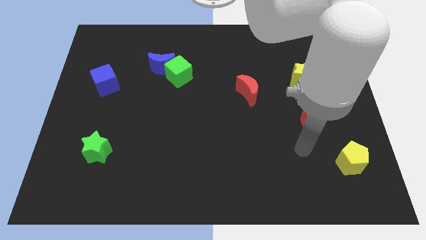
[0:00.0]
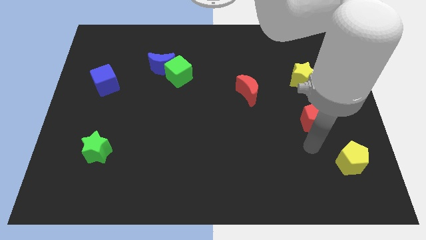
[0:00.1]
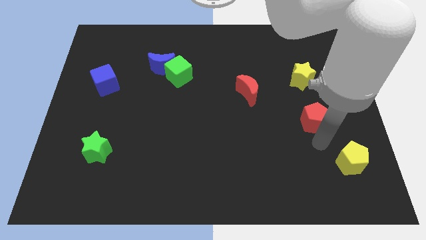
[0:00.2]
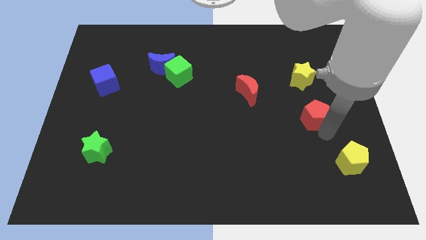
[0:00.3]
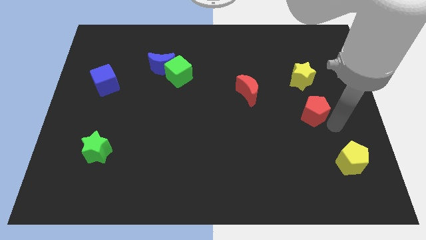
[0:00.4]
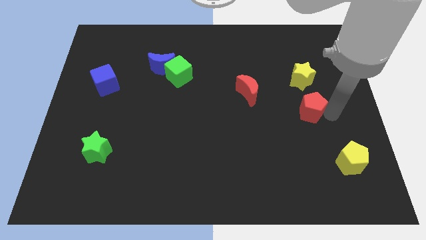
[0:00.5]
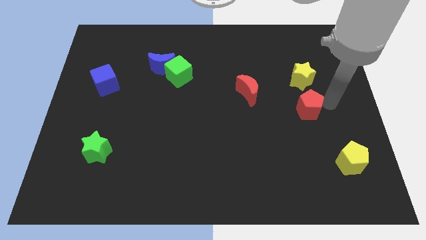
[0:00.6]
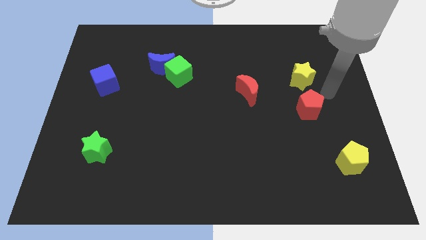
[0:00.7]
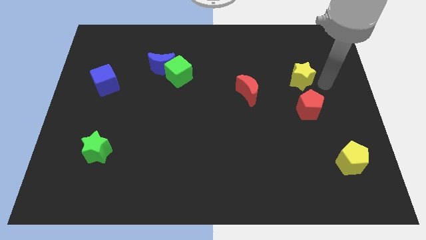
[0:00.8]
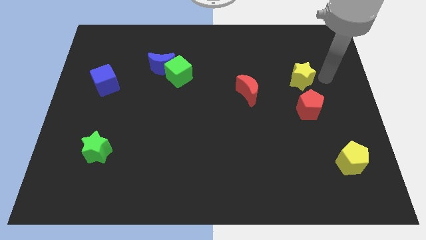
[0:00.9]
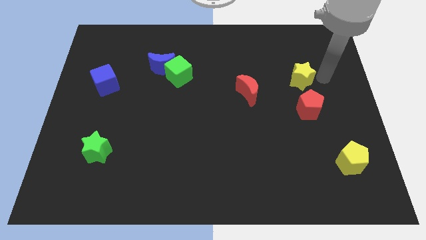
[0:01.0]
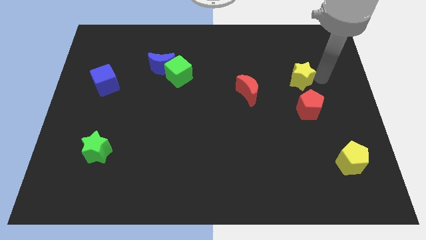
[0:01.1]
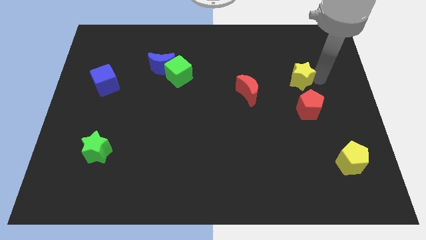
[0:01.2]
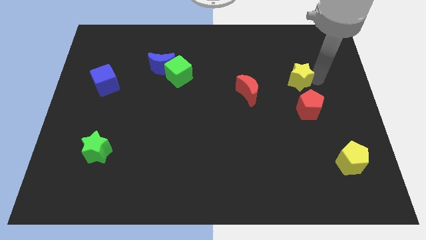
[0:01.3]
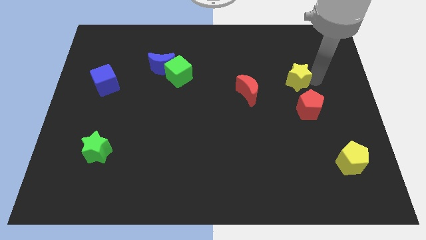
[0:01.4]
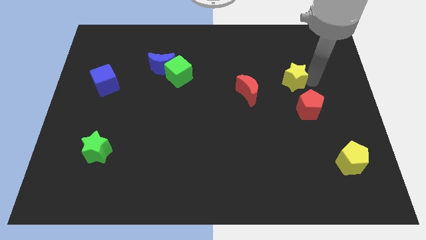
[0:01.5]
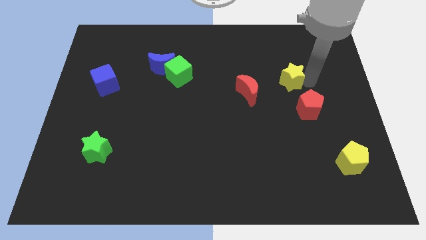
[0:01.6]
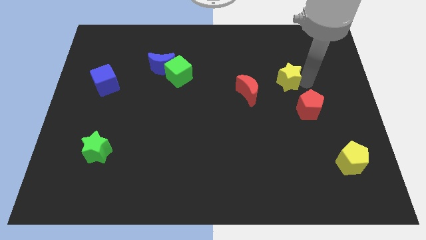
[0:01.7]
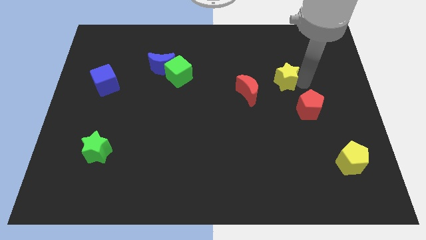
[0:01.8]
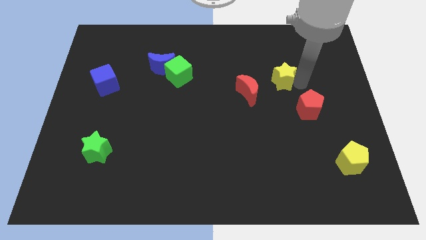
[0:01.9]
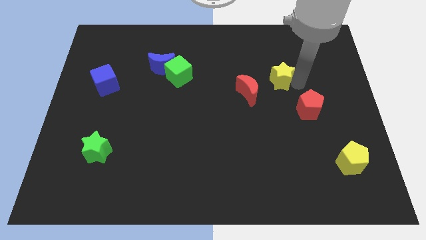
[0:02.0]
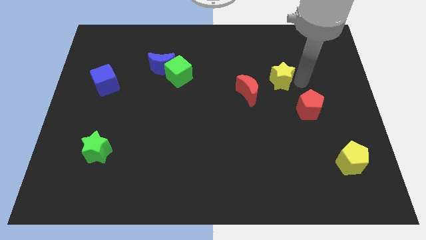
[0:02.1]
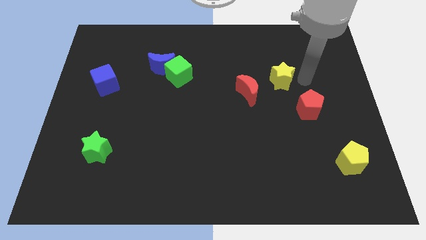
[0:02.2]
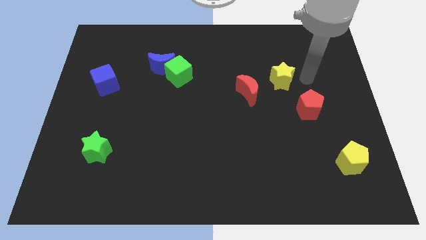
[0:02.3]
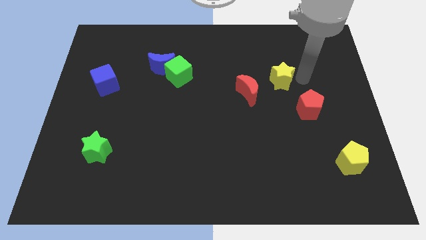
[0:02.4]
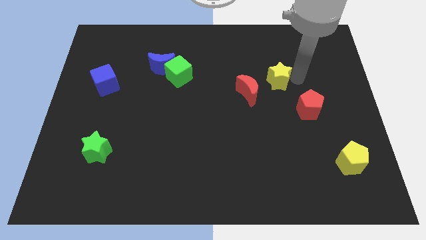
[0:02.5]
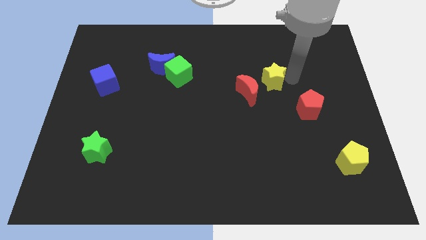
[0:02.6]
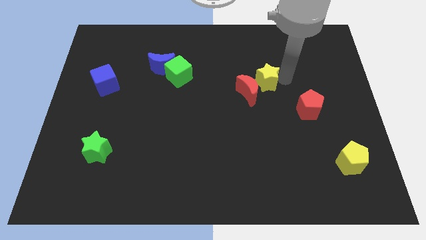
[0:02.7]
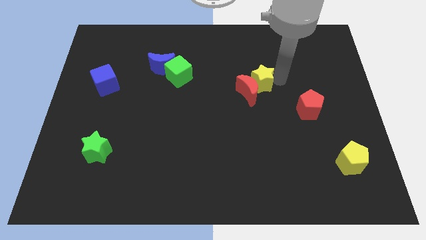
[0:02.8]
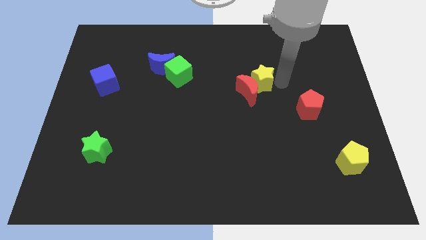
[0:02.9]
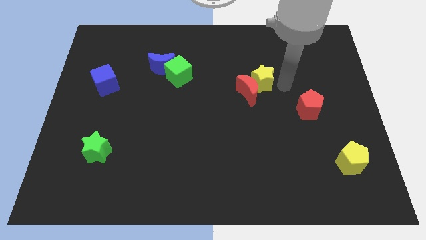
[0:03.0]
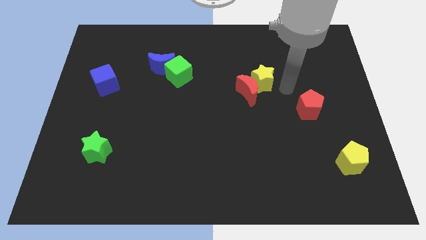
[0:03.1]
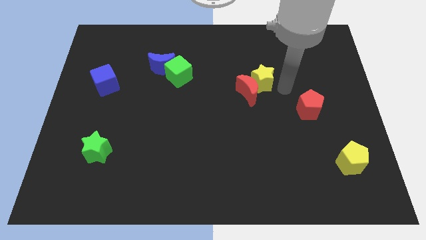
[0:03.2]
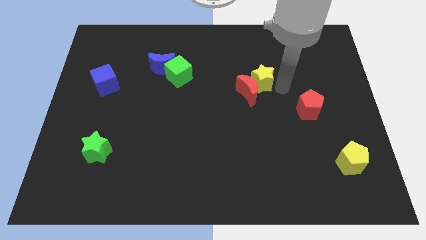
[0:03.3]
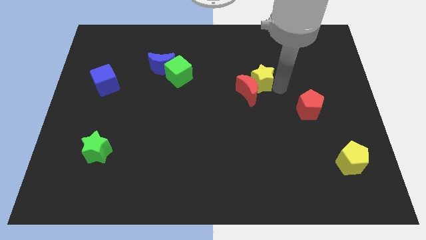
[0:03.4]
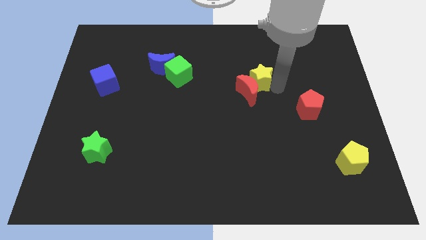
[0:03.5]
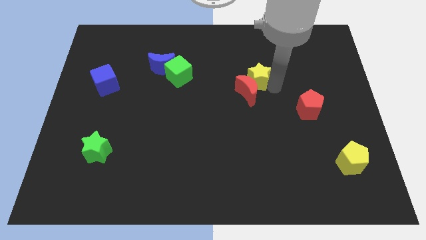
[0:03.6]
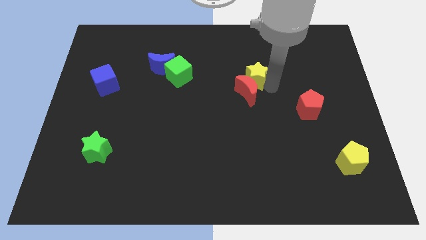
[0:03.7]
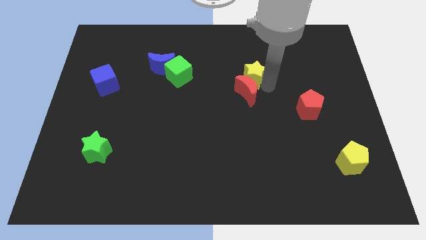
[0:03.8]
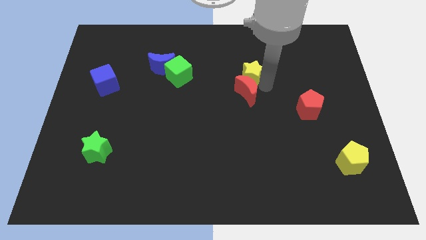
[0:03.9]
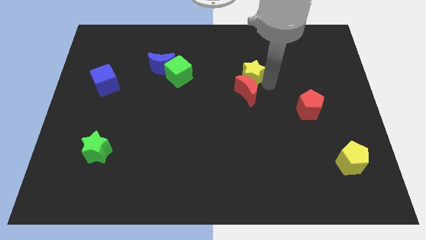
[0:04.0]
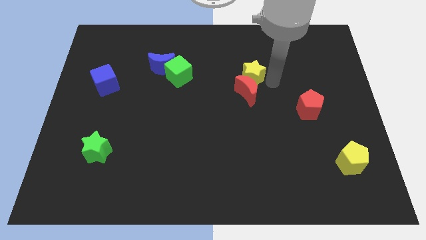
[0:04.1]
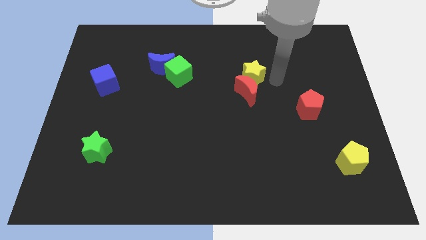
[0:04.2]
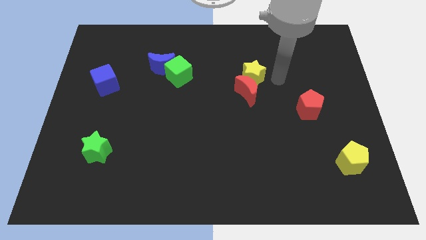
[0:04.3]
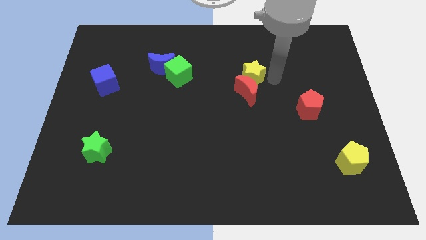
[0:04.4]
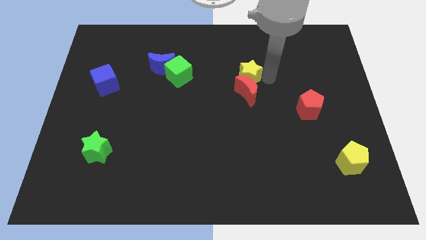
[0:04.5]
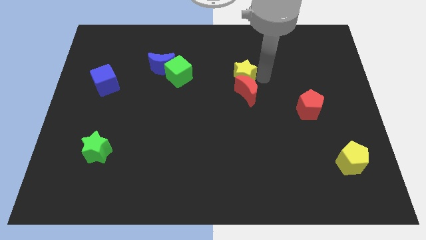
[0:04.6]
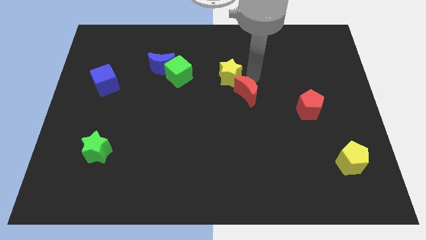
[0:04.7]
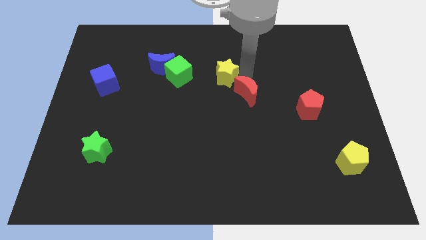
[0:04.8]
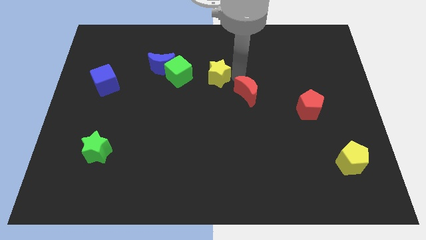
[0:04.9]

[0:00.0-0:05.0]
slide the yellow star to the right side of the blue moon

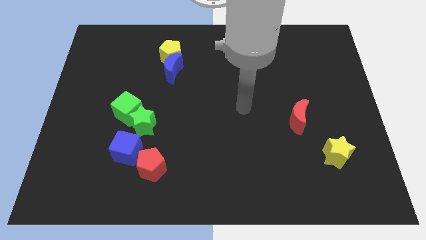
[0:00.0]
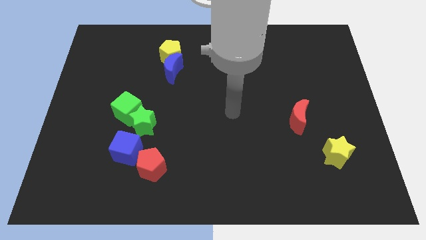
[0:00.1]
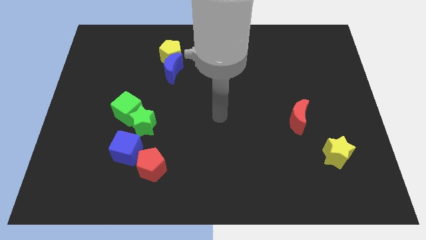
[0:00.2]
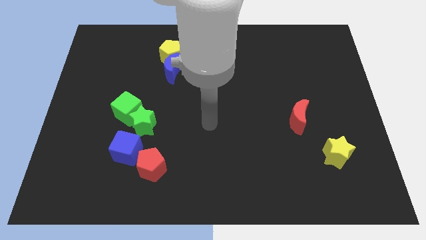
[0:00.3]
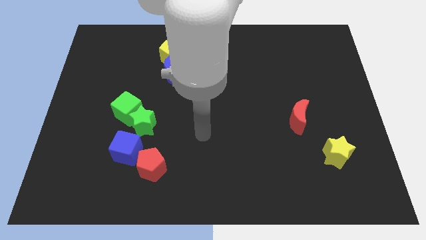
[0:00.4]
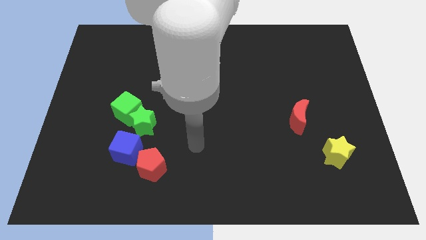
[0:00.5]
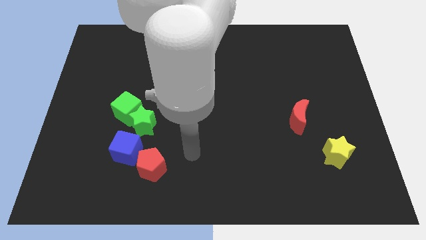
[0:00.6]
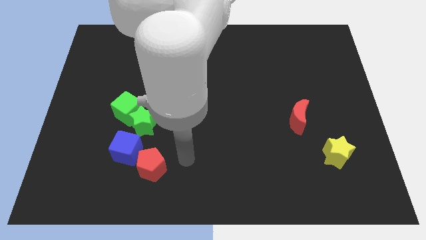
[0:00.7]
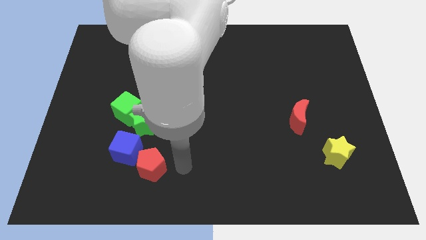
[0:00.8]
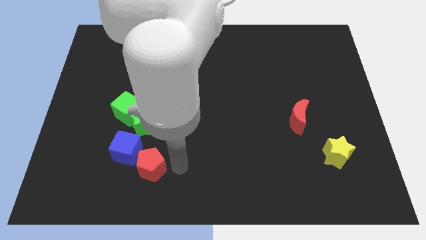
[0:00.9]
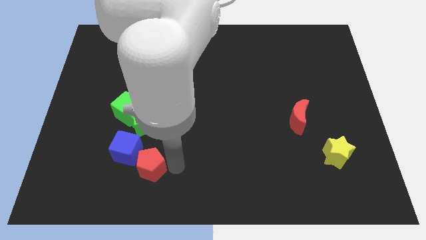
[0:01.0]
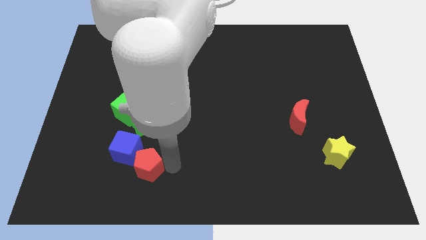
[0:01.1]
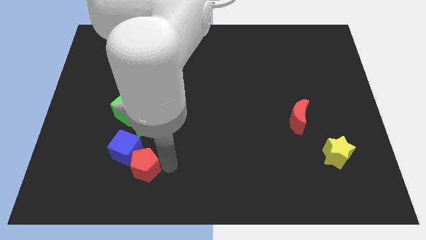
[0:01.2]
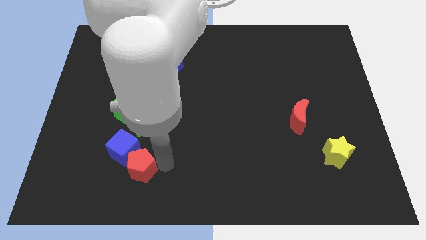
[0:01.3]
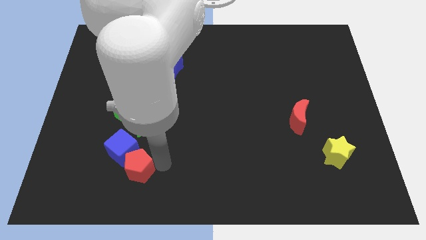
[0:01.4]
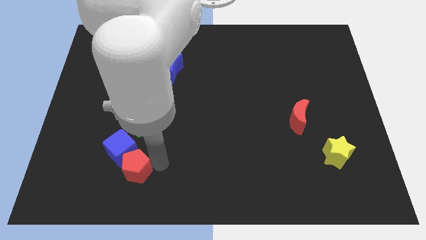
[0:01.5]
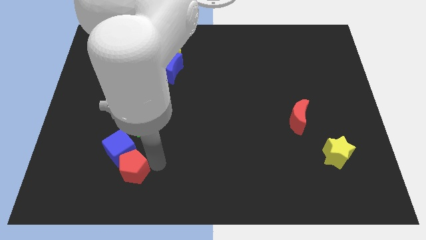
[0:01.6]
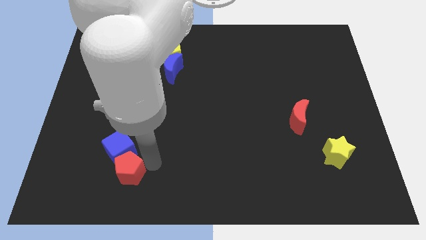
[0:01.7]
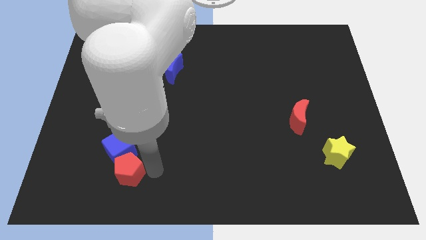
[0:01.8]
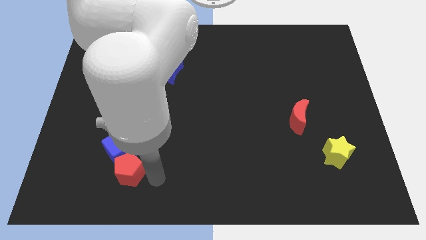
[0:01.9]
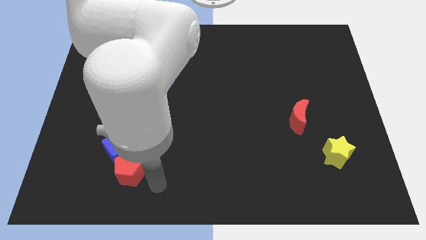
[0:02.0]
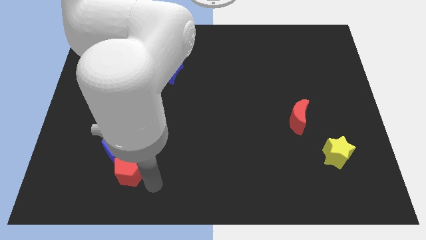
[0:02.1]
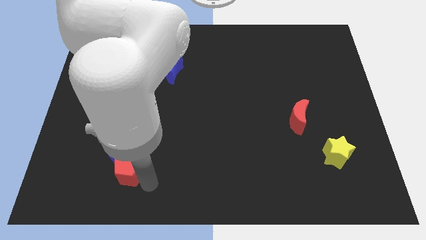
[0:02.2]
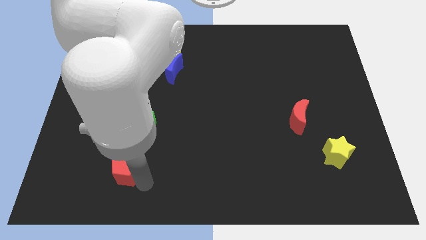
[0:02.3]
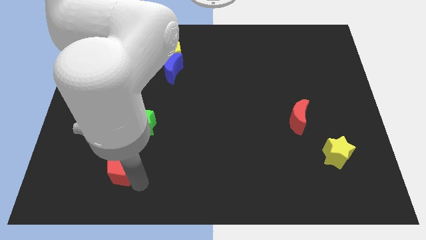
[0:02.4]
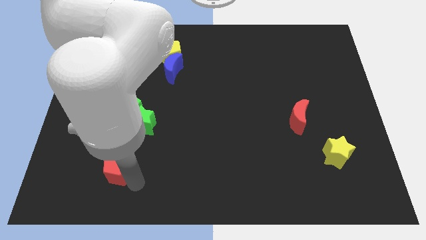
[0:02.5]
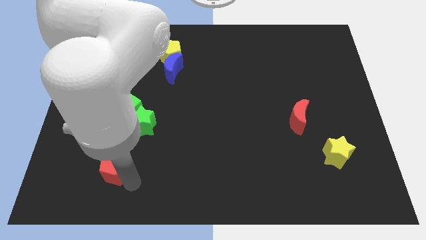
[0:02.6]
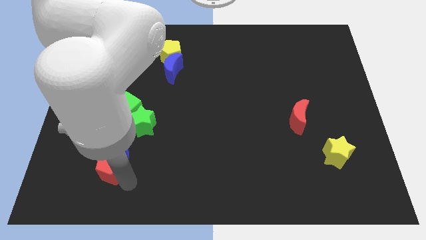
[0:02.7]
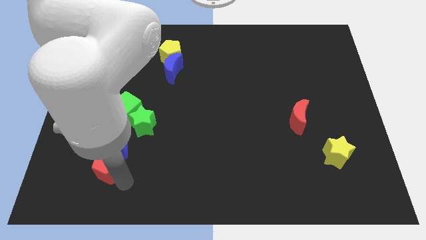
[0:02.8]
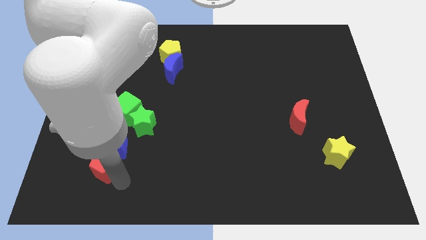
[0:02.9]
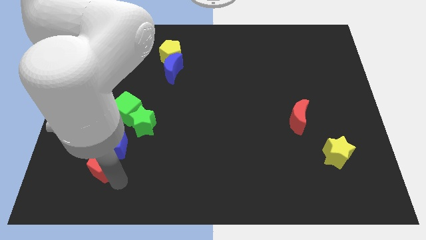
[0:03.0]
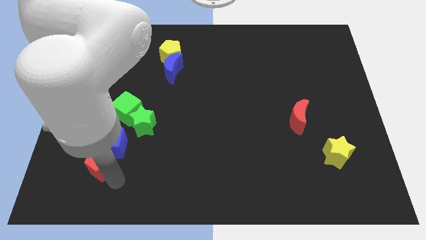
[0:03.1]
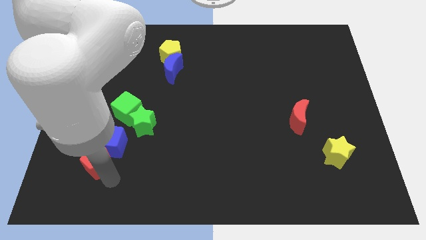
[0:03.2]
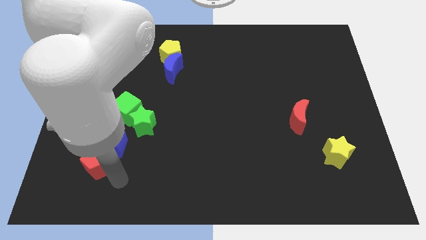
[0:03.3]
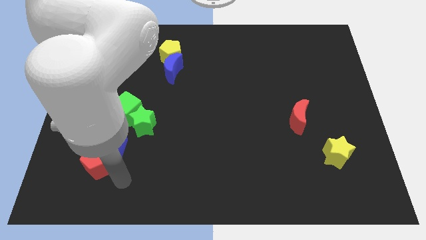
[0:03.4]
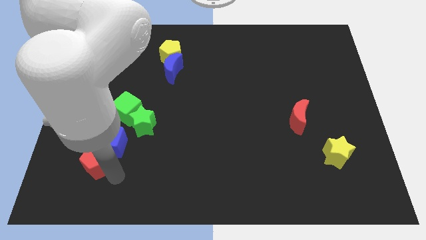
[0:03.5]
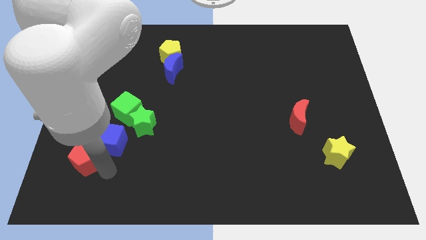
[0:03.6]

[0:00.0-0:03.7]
push the red pentagon to the left of the blue cube
